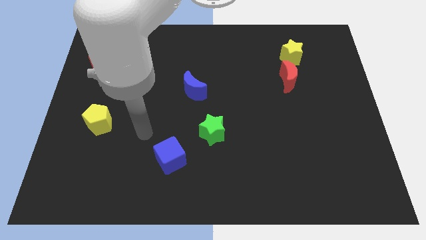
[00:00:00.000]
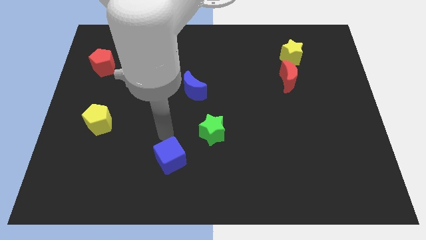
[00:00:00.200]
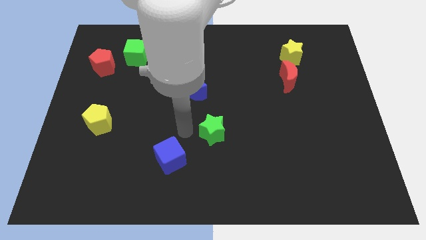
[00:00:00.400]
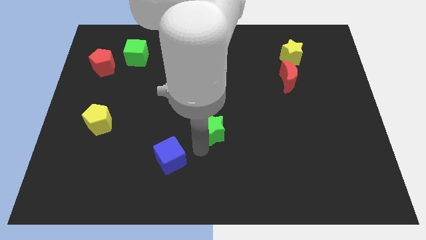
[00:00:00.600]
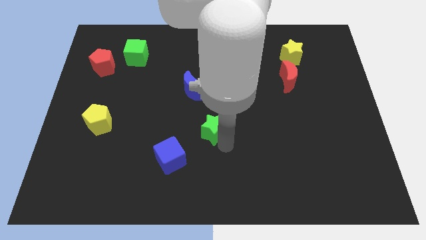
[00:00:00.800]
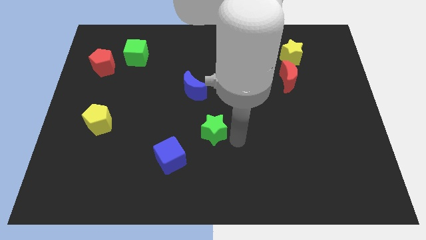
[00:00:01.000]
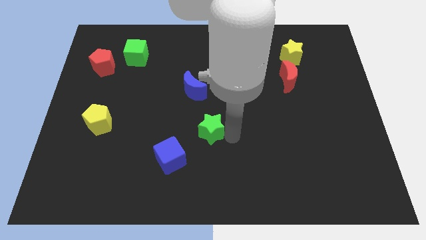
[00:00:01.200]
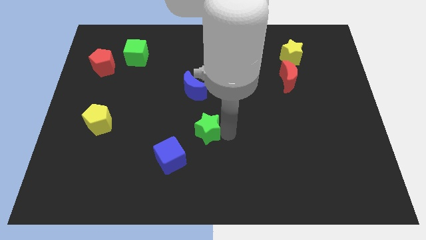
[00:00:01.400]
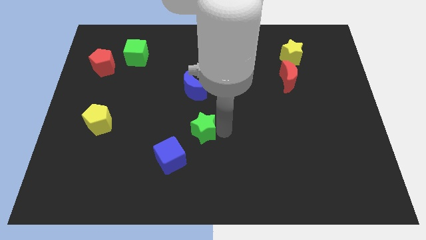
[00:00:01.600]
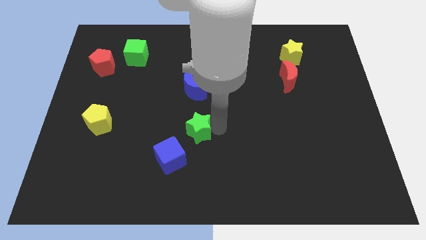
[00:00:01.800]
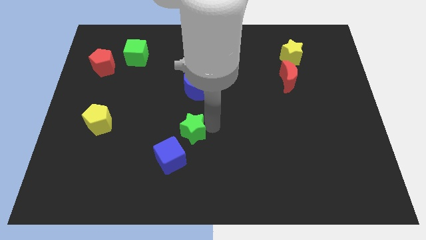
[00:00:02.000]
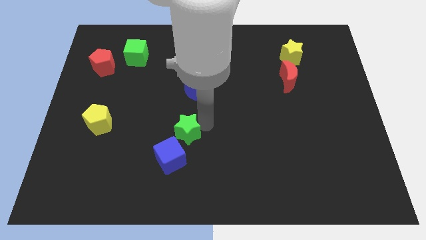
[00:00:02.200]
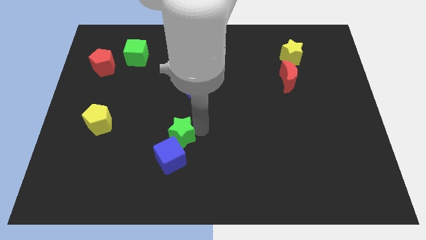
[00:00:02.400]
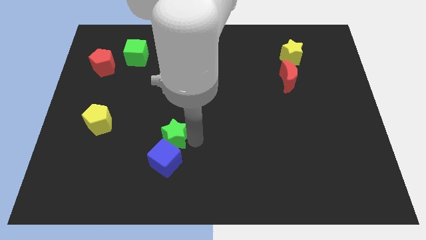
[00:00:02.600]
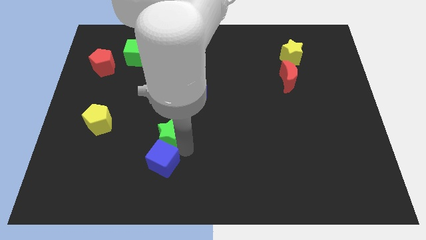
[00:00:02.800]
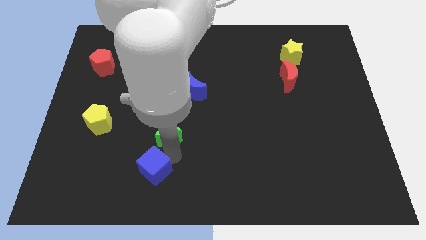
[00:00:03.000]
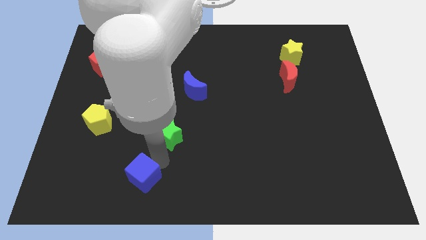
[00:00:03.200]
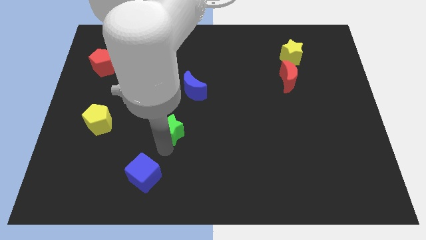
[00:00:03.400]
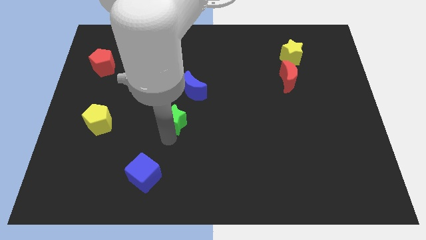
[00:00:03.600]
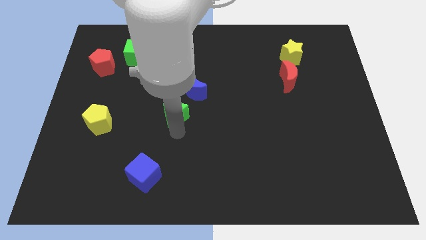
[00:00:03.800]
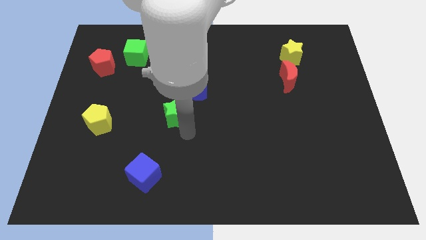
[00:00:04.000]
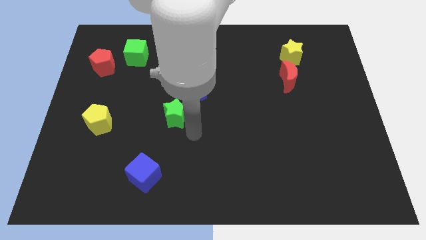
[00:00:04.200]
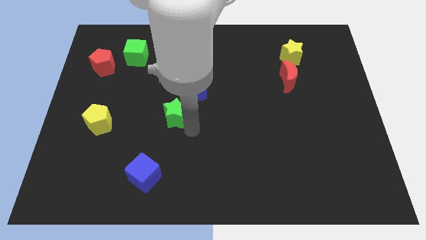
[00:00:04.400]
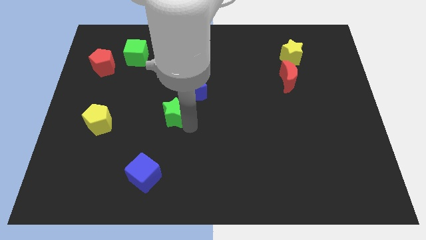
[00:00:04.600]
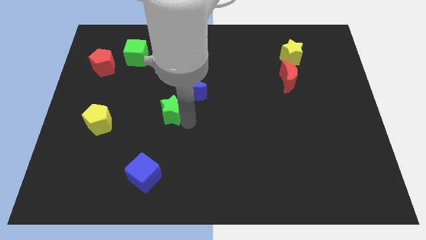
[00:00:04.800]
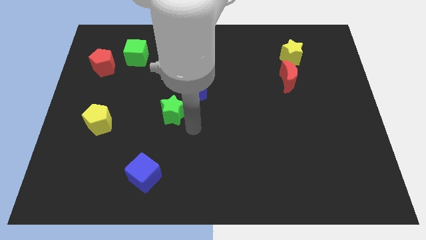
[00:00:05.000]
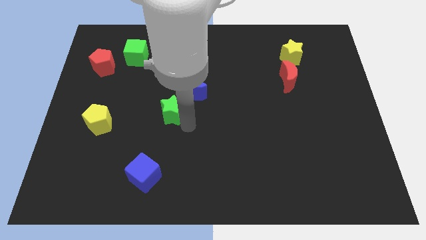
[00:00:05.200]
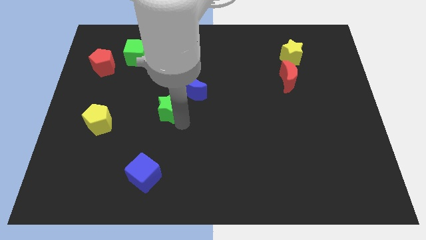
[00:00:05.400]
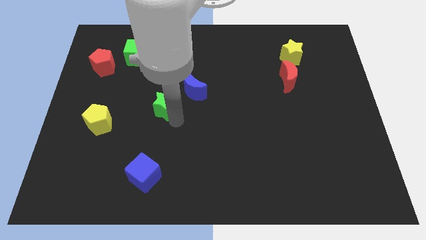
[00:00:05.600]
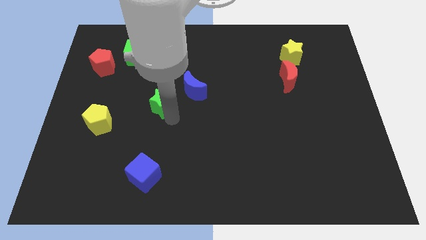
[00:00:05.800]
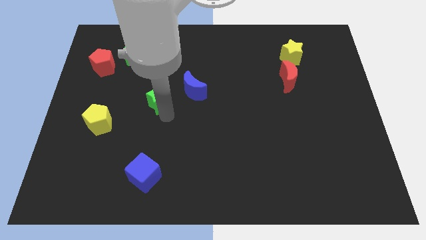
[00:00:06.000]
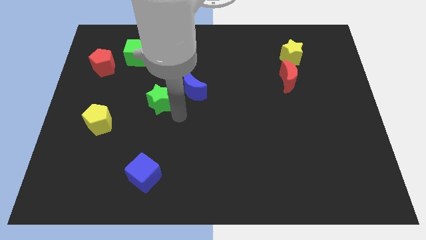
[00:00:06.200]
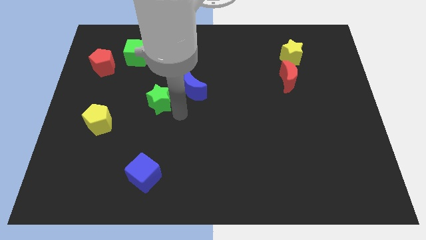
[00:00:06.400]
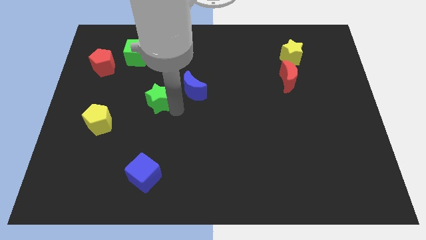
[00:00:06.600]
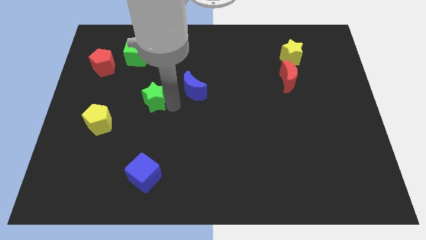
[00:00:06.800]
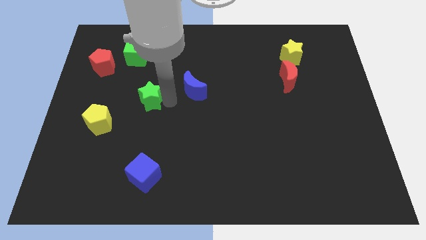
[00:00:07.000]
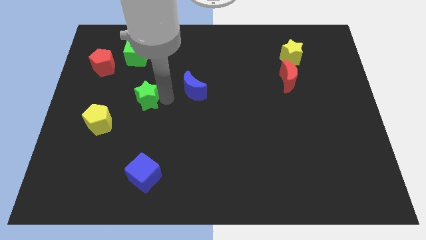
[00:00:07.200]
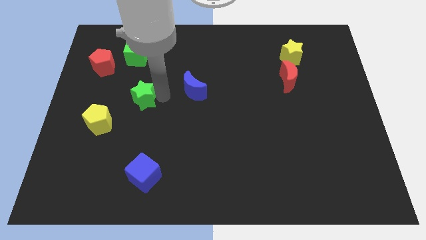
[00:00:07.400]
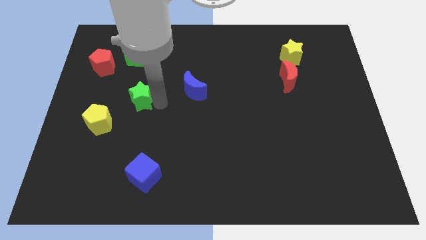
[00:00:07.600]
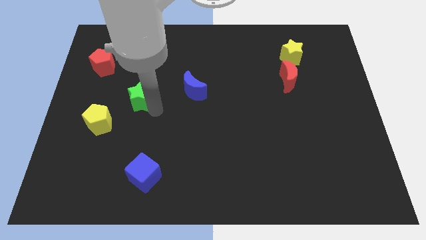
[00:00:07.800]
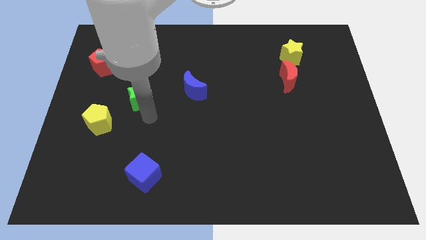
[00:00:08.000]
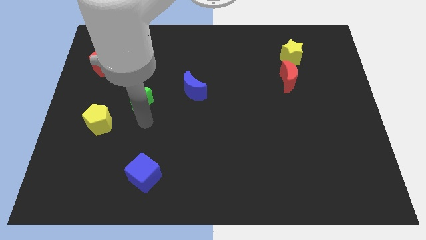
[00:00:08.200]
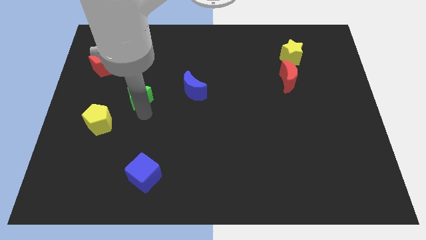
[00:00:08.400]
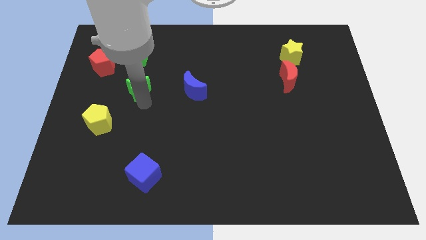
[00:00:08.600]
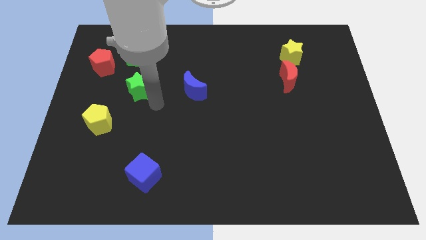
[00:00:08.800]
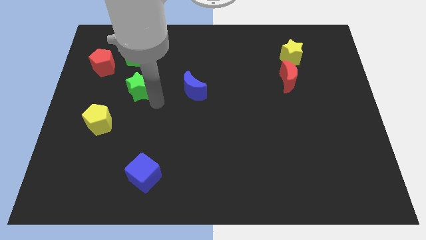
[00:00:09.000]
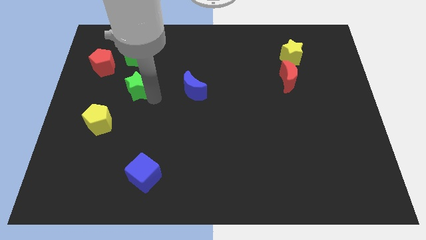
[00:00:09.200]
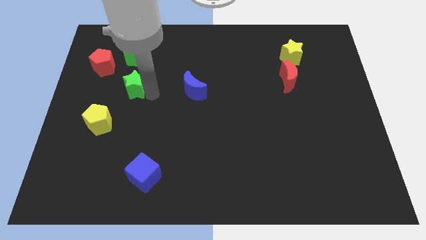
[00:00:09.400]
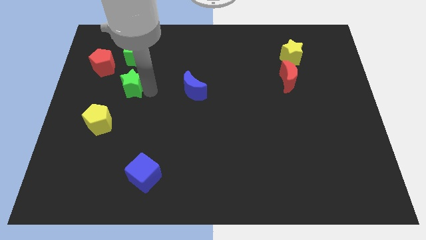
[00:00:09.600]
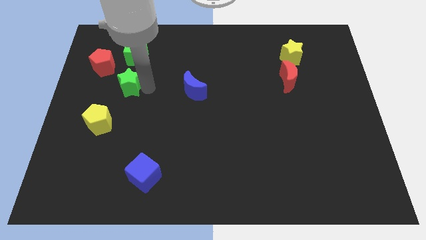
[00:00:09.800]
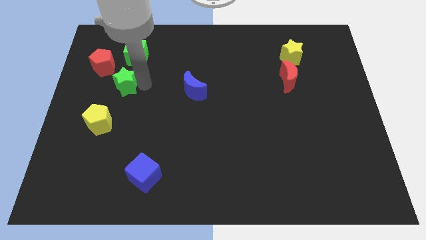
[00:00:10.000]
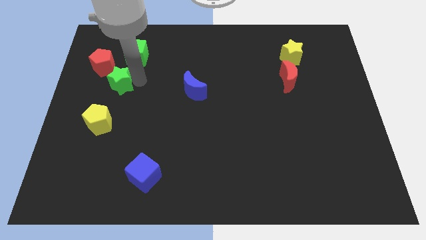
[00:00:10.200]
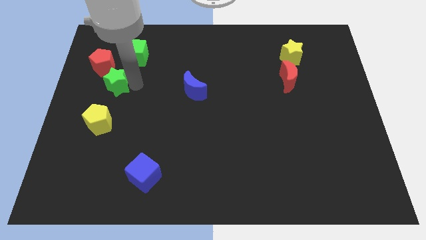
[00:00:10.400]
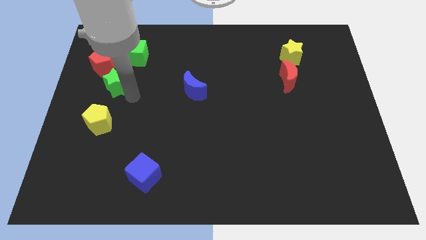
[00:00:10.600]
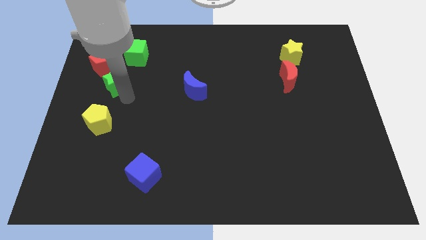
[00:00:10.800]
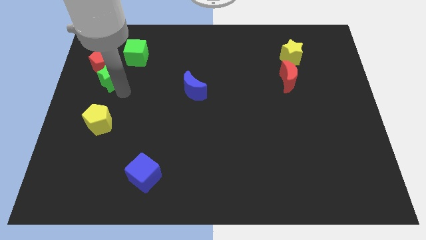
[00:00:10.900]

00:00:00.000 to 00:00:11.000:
put the green star next to the red pentagon

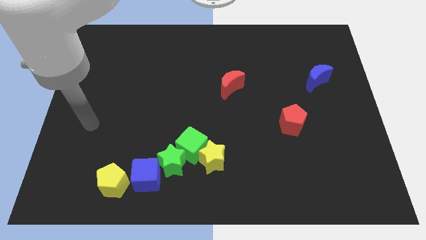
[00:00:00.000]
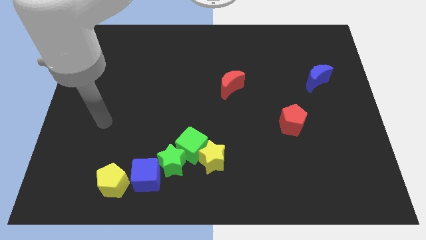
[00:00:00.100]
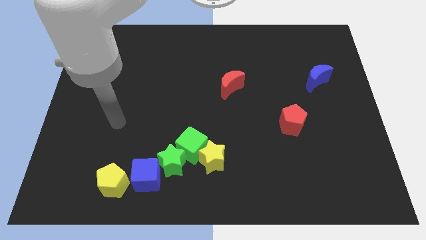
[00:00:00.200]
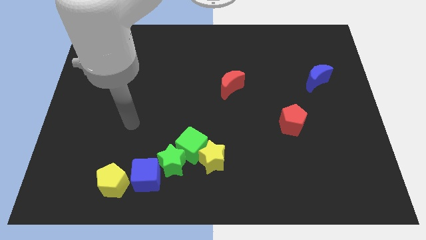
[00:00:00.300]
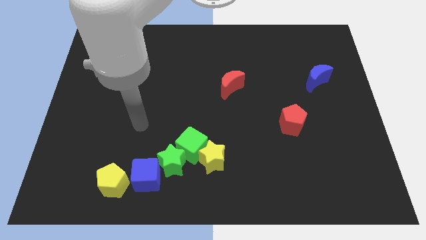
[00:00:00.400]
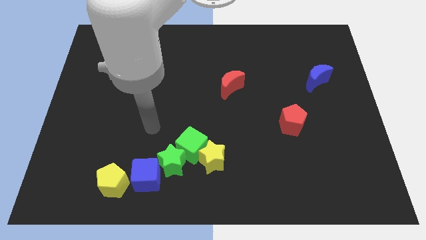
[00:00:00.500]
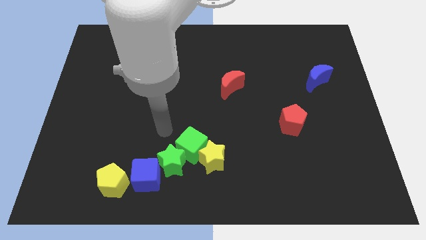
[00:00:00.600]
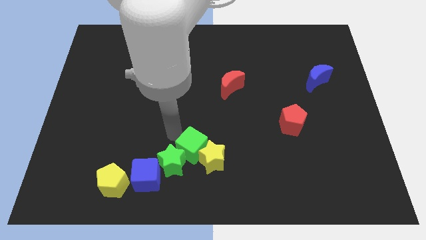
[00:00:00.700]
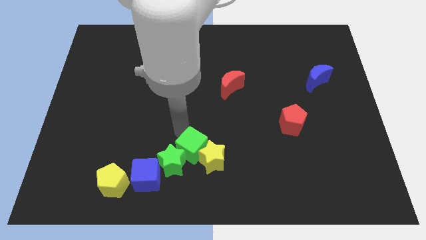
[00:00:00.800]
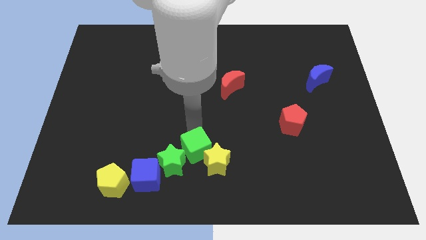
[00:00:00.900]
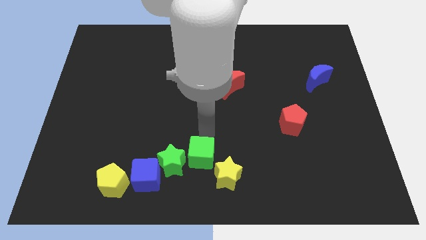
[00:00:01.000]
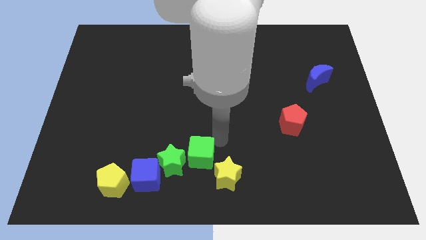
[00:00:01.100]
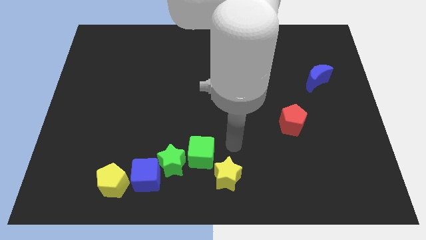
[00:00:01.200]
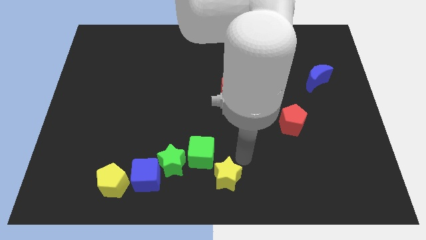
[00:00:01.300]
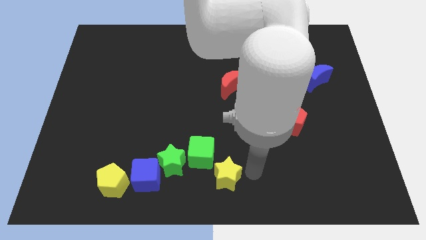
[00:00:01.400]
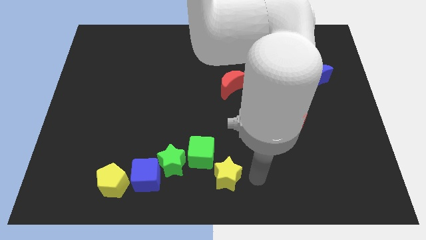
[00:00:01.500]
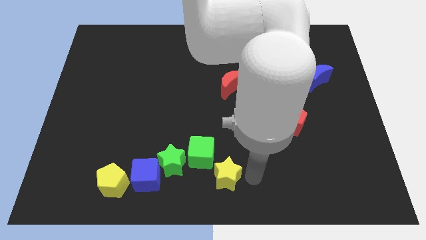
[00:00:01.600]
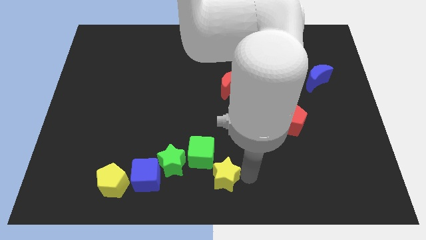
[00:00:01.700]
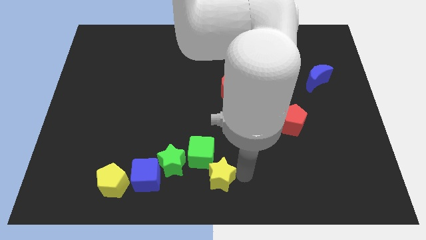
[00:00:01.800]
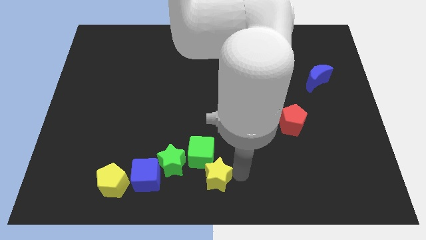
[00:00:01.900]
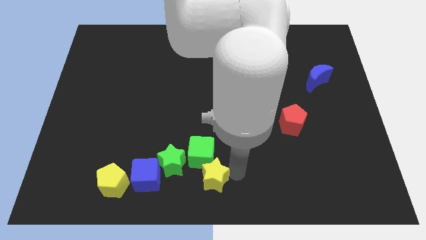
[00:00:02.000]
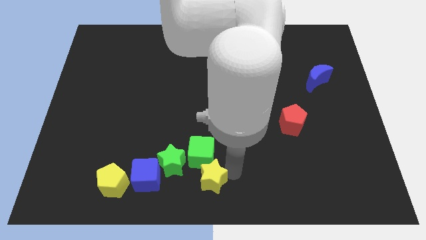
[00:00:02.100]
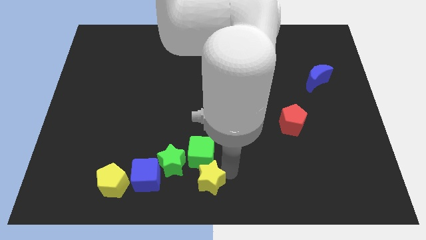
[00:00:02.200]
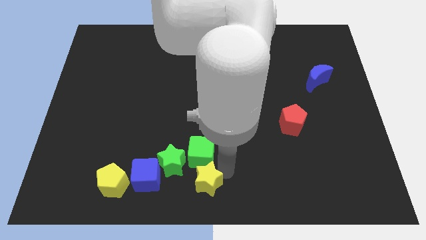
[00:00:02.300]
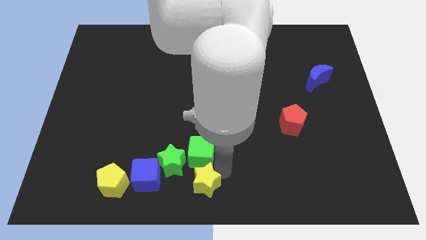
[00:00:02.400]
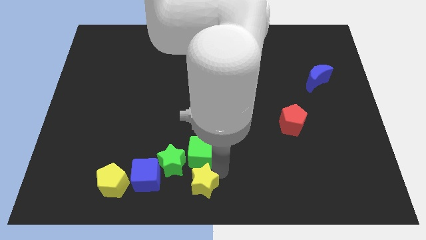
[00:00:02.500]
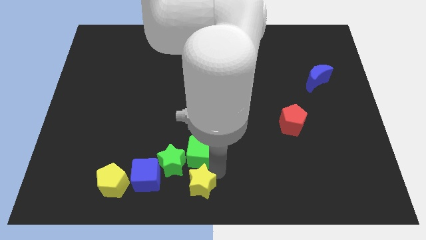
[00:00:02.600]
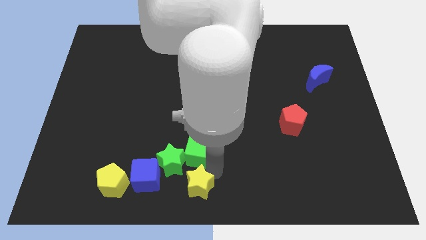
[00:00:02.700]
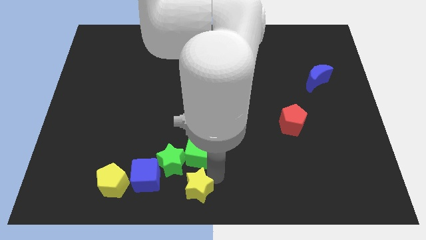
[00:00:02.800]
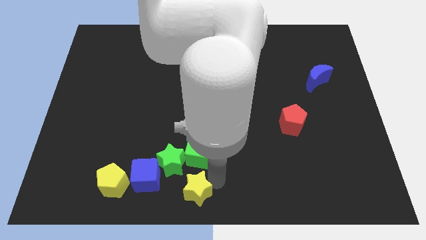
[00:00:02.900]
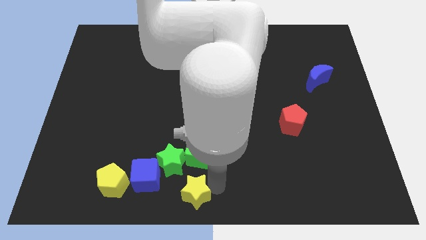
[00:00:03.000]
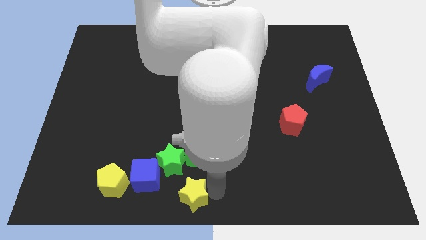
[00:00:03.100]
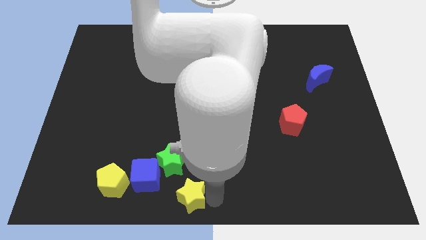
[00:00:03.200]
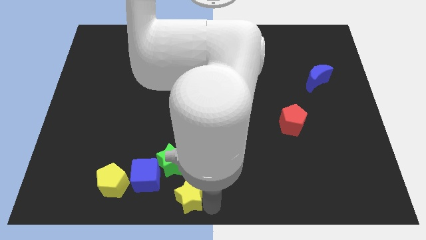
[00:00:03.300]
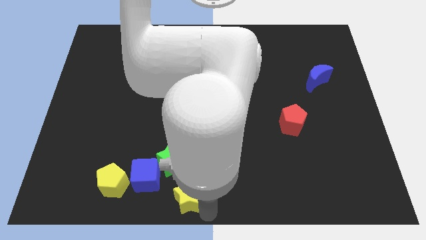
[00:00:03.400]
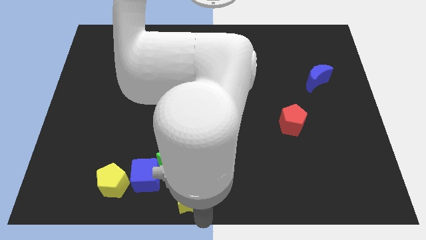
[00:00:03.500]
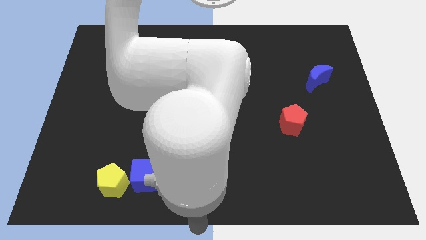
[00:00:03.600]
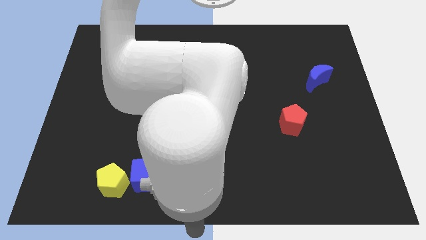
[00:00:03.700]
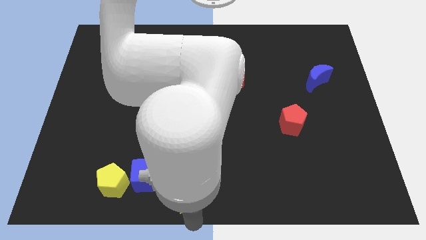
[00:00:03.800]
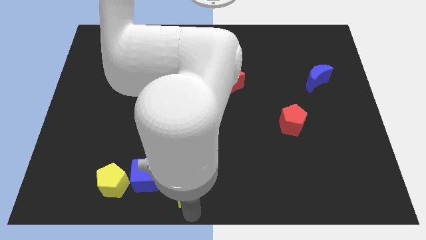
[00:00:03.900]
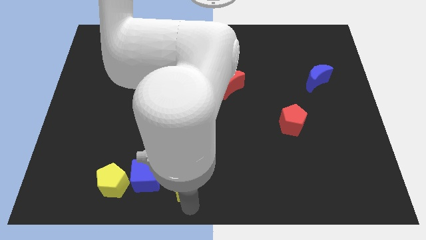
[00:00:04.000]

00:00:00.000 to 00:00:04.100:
slide the yellow star close to the green star
